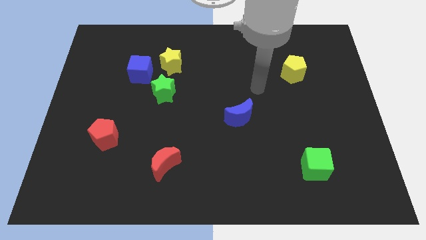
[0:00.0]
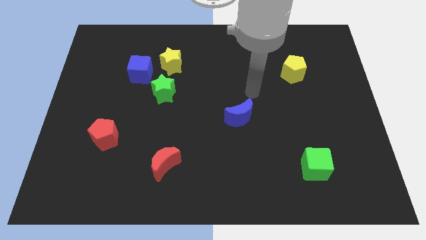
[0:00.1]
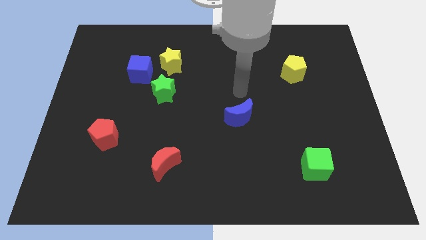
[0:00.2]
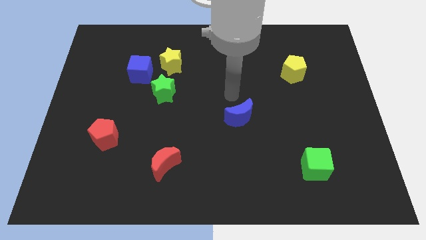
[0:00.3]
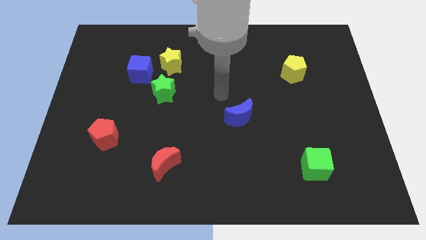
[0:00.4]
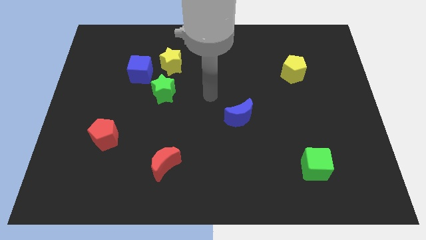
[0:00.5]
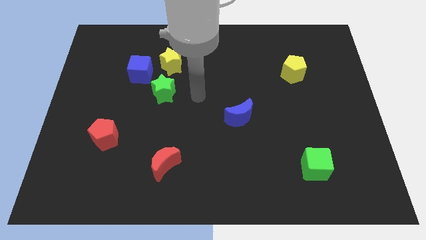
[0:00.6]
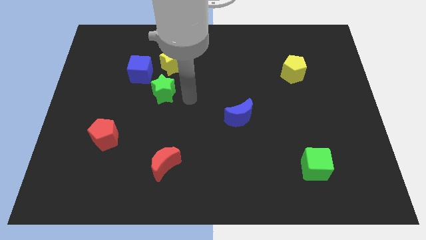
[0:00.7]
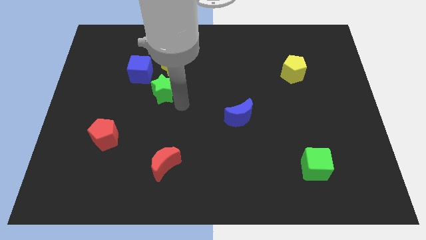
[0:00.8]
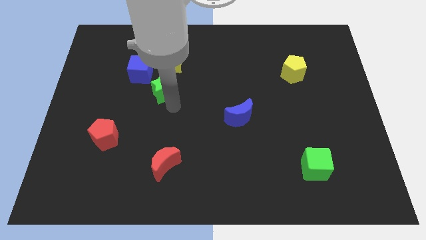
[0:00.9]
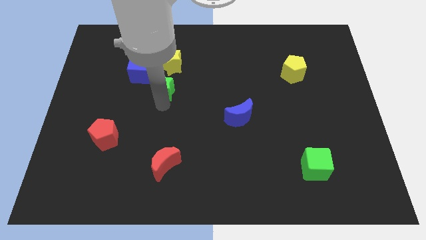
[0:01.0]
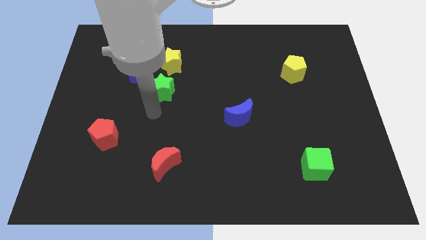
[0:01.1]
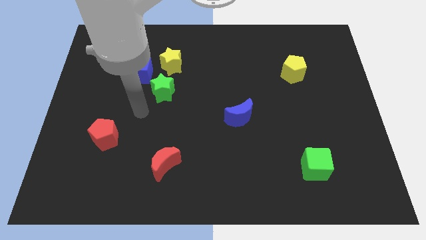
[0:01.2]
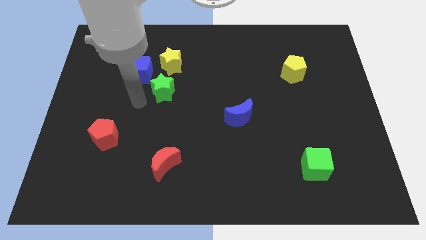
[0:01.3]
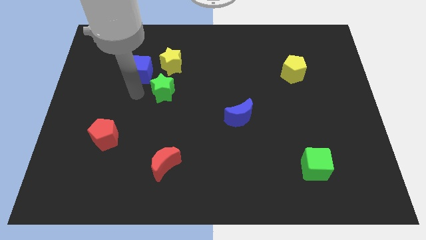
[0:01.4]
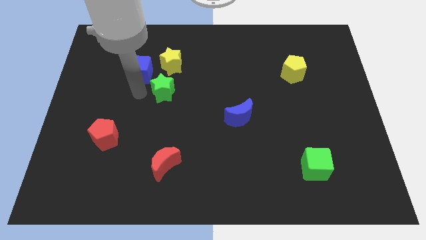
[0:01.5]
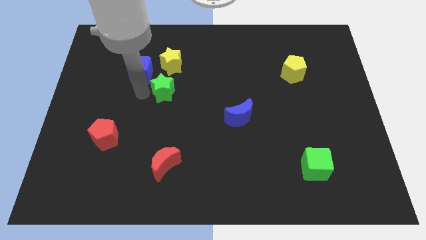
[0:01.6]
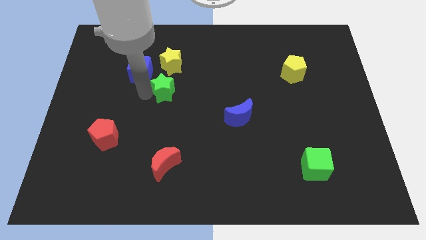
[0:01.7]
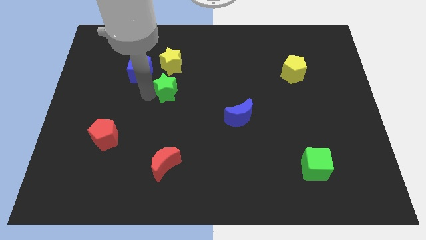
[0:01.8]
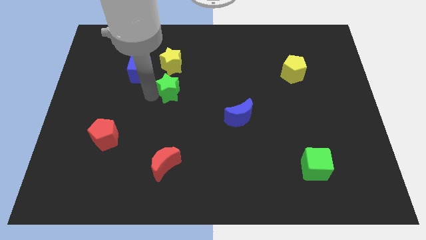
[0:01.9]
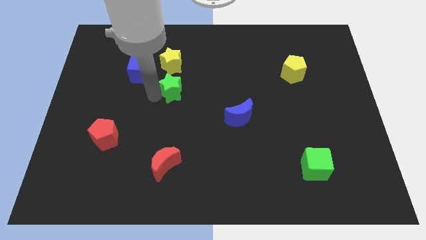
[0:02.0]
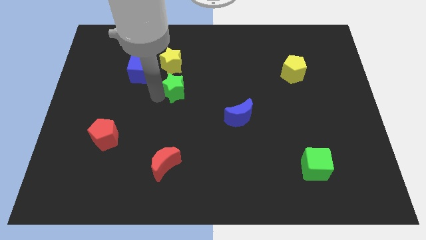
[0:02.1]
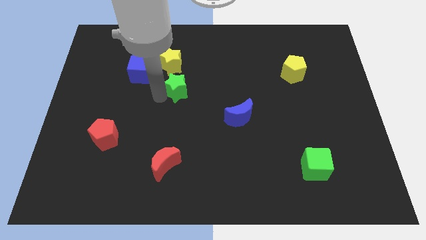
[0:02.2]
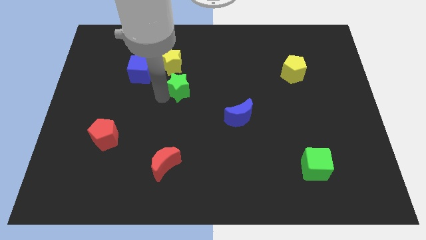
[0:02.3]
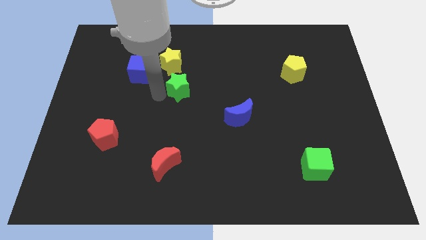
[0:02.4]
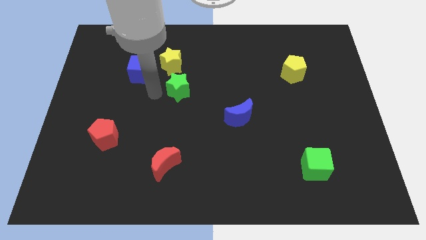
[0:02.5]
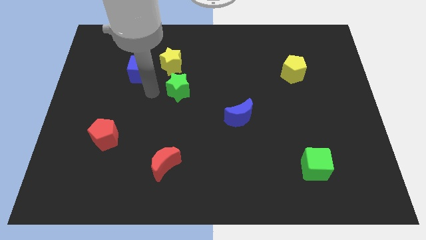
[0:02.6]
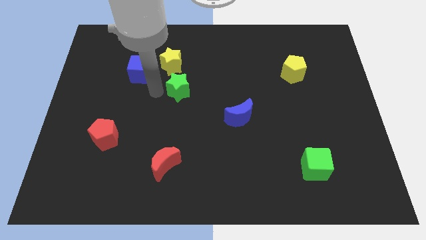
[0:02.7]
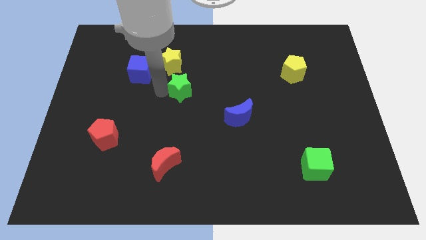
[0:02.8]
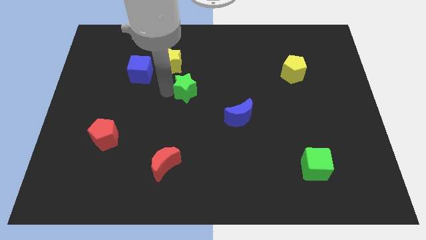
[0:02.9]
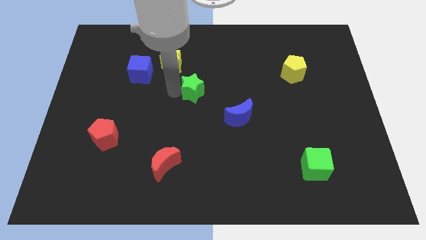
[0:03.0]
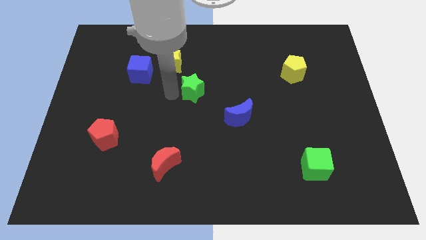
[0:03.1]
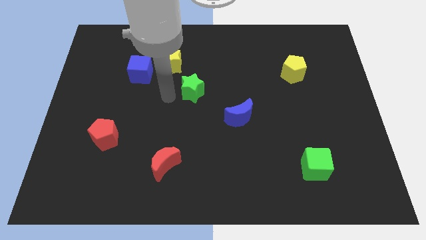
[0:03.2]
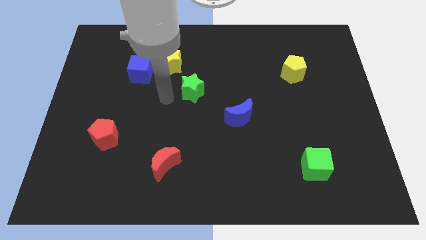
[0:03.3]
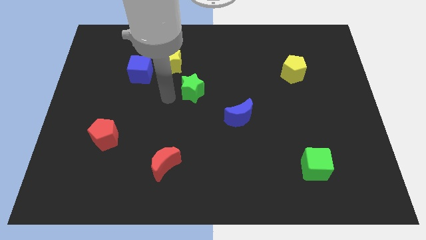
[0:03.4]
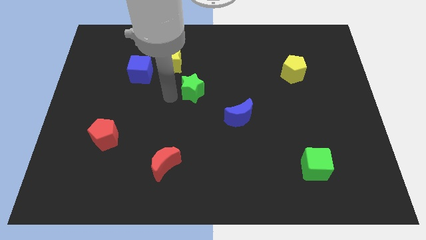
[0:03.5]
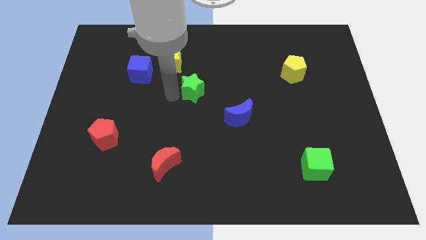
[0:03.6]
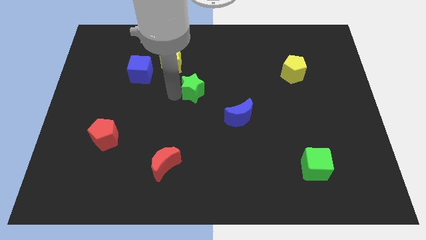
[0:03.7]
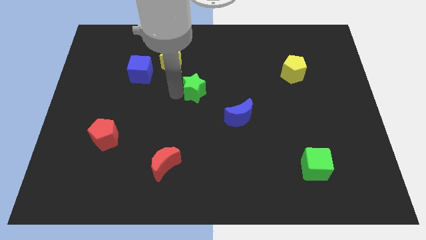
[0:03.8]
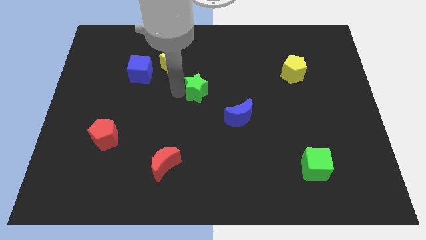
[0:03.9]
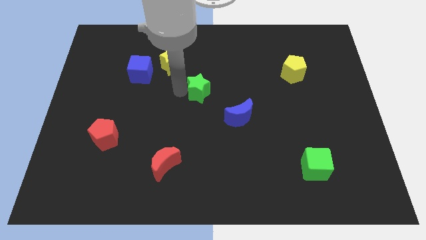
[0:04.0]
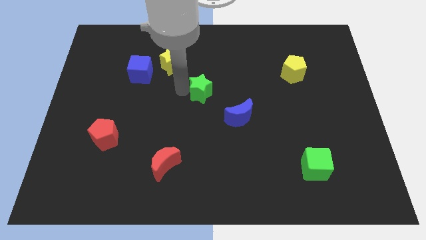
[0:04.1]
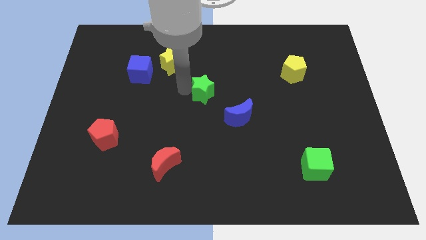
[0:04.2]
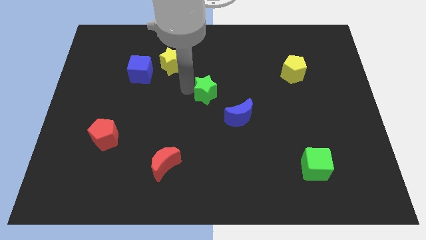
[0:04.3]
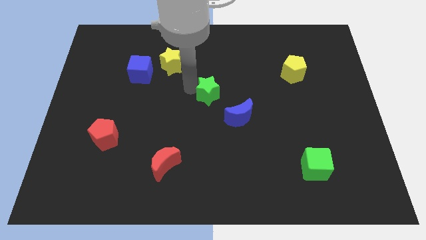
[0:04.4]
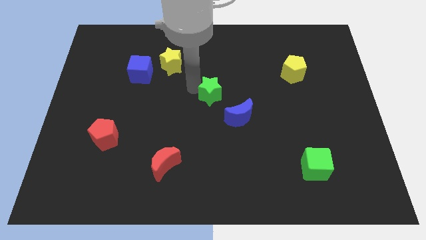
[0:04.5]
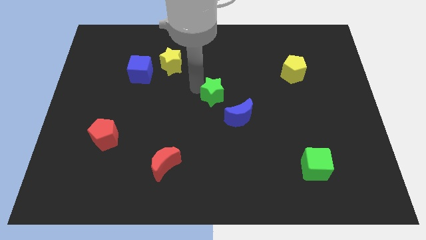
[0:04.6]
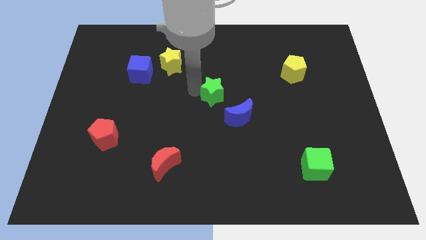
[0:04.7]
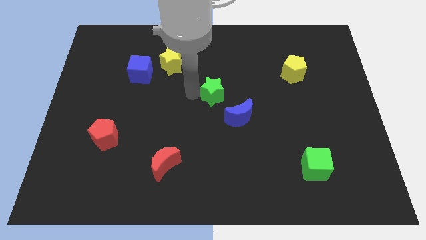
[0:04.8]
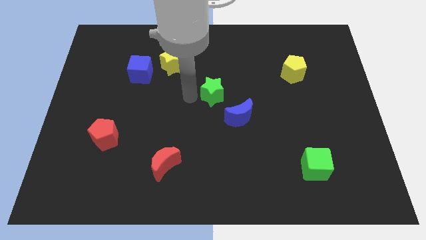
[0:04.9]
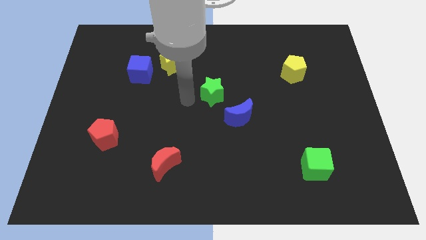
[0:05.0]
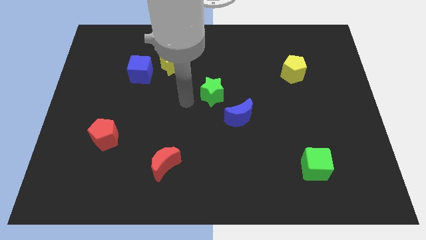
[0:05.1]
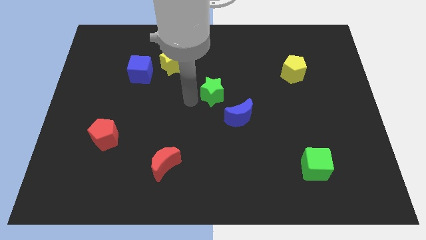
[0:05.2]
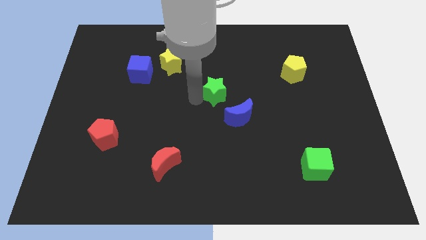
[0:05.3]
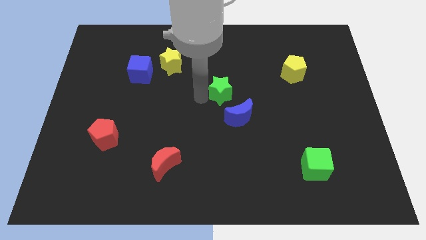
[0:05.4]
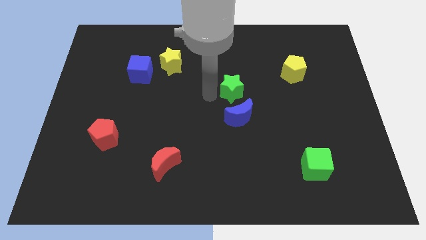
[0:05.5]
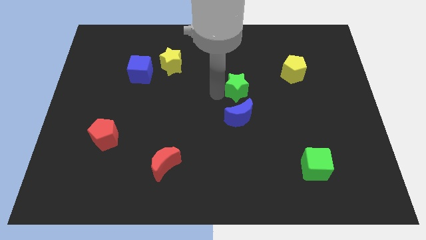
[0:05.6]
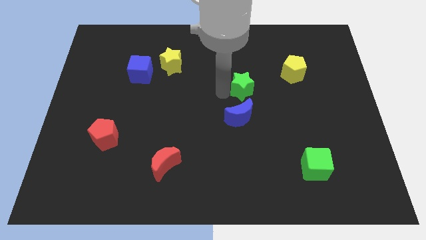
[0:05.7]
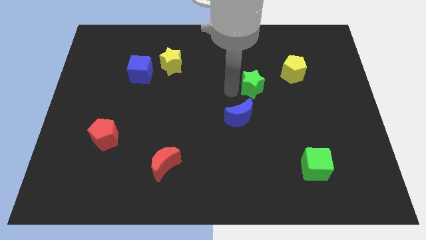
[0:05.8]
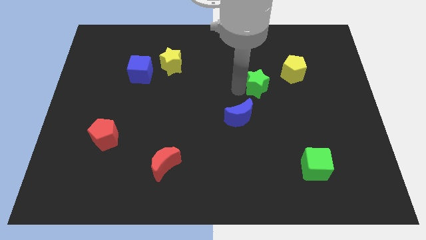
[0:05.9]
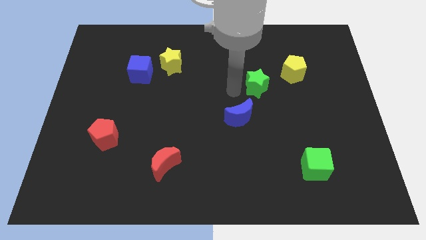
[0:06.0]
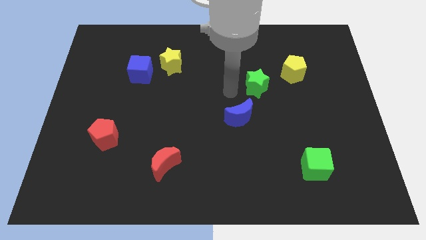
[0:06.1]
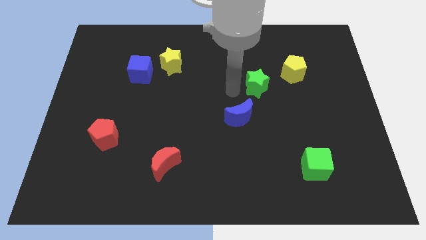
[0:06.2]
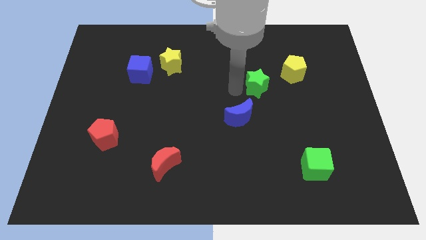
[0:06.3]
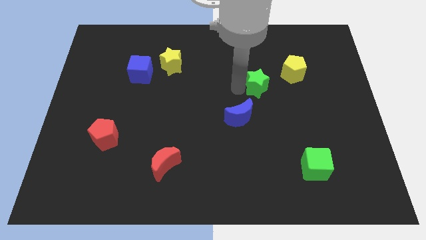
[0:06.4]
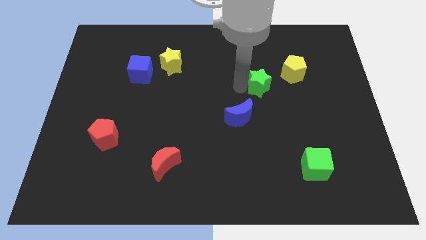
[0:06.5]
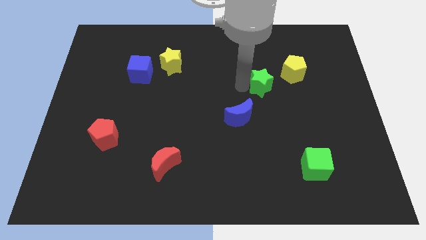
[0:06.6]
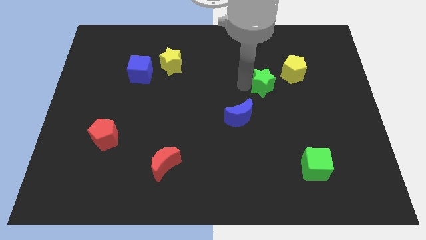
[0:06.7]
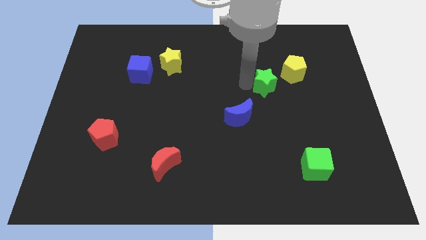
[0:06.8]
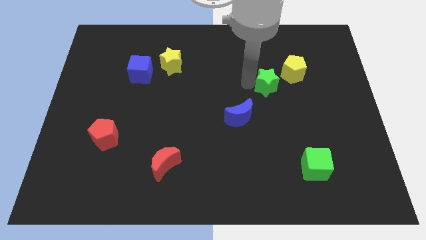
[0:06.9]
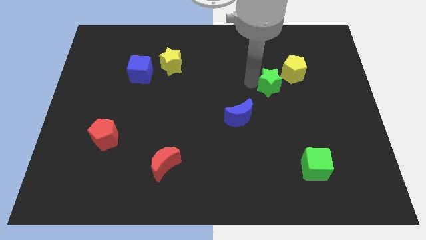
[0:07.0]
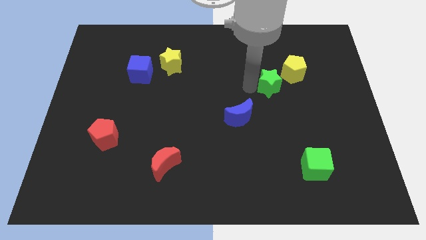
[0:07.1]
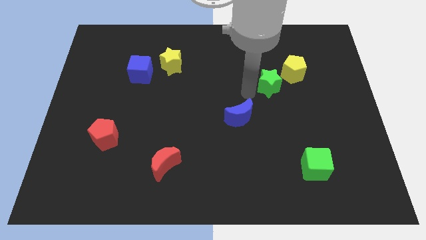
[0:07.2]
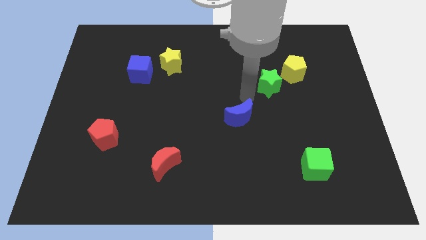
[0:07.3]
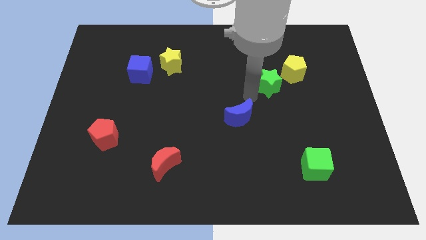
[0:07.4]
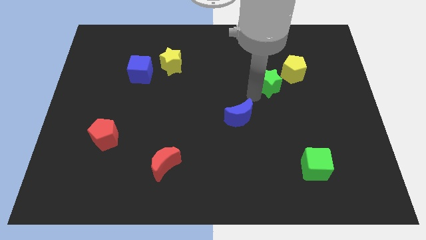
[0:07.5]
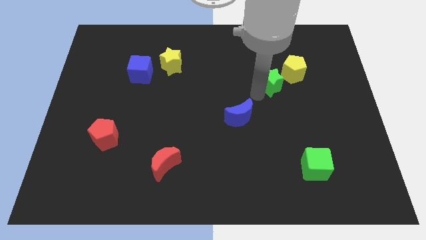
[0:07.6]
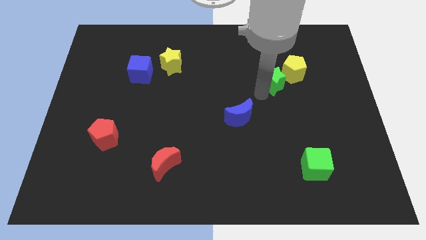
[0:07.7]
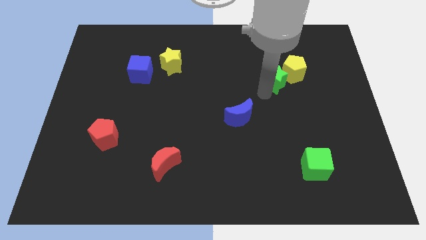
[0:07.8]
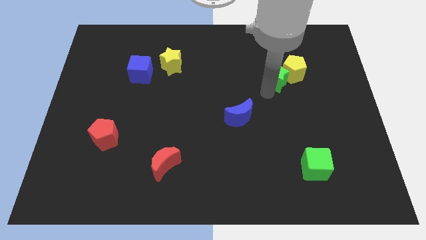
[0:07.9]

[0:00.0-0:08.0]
put the green star towards the yellow pentagon
